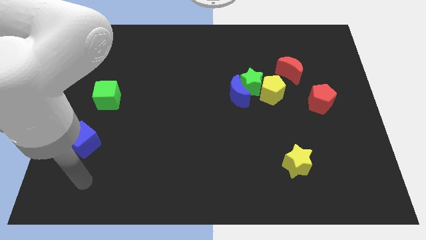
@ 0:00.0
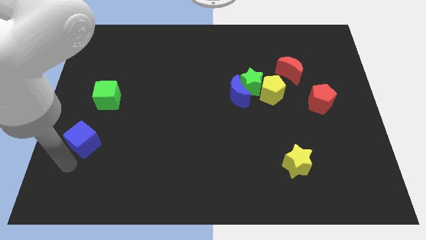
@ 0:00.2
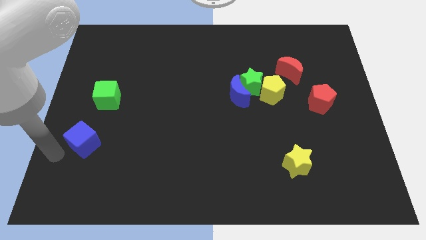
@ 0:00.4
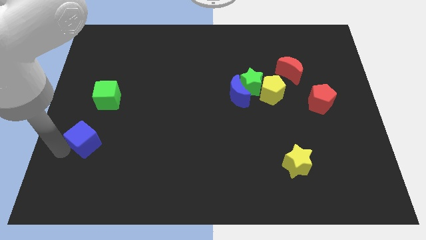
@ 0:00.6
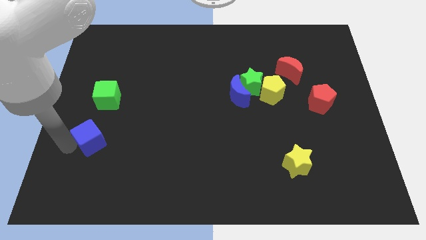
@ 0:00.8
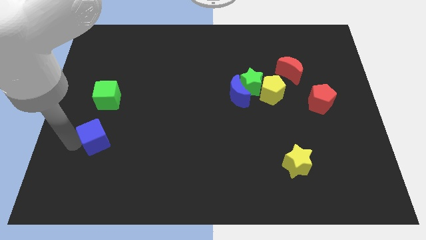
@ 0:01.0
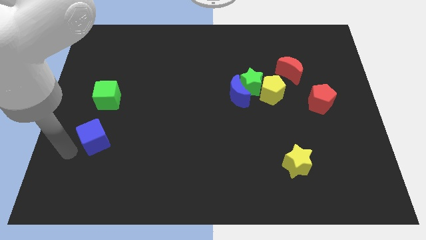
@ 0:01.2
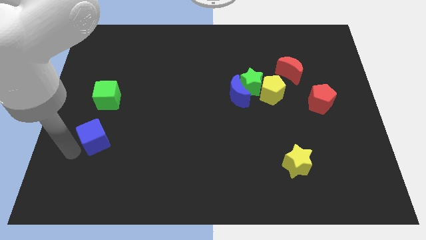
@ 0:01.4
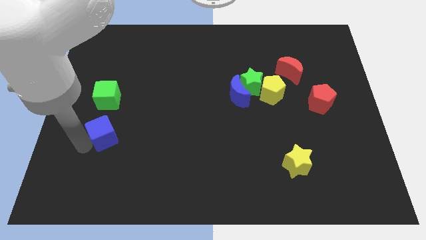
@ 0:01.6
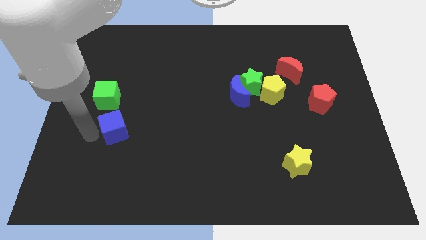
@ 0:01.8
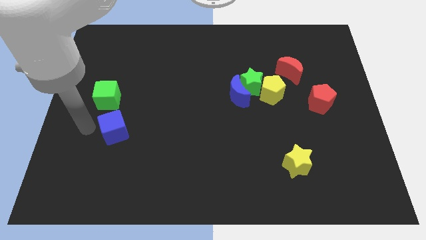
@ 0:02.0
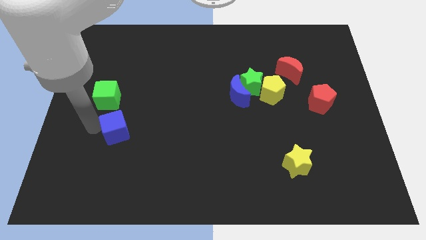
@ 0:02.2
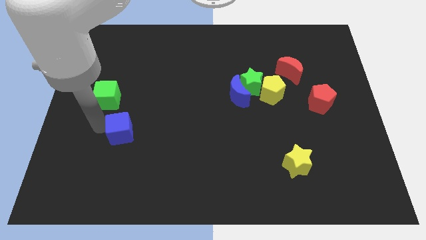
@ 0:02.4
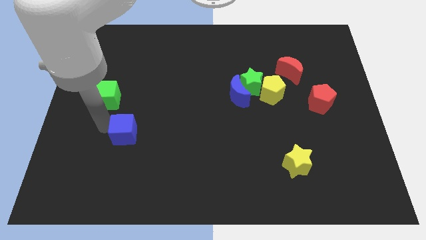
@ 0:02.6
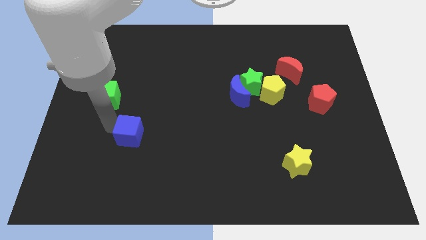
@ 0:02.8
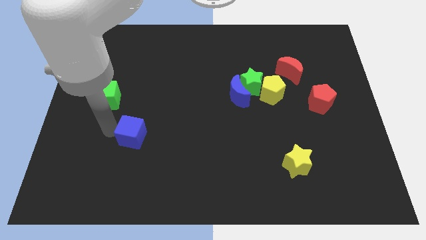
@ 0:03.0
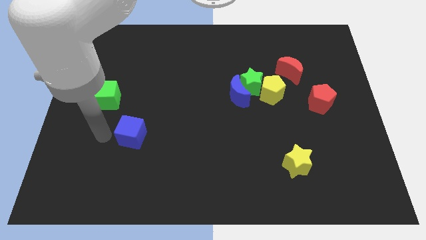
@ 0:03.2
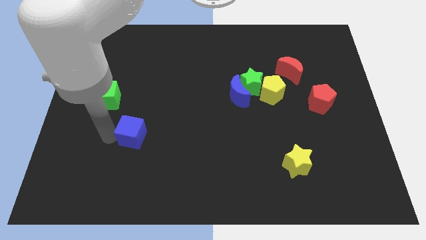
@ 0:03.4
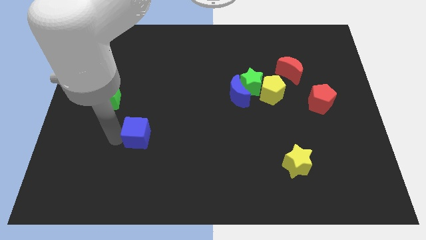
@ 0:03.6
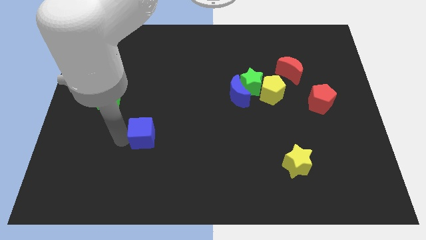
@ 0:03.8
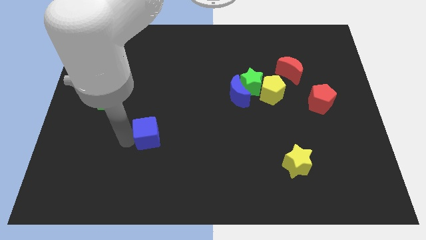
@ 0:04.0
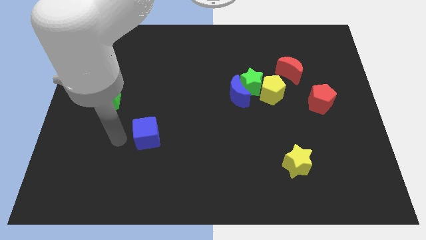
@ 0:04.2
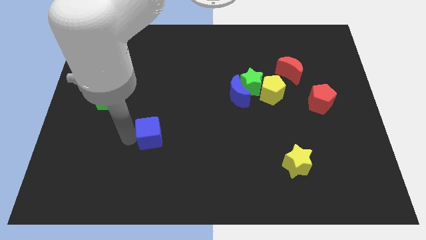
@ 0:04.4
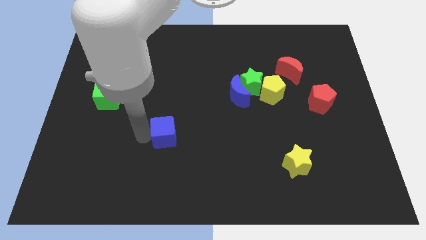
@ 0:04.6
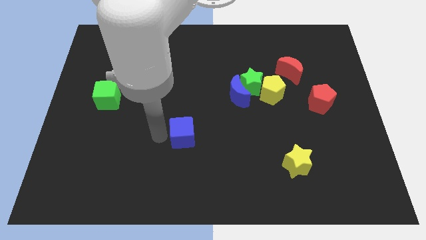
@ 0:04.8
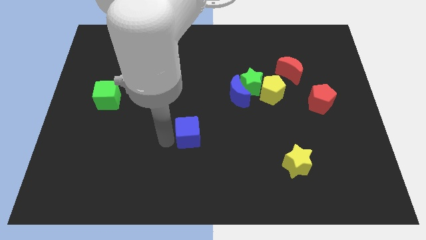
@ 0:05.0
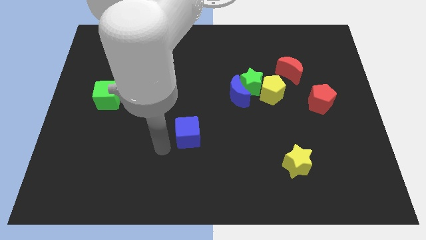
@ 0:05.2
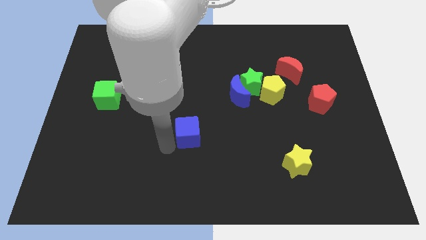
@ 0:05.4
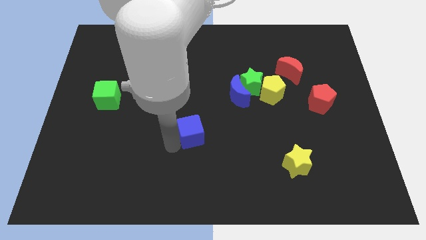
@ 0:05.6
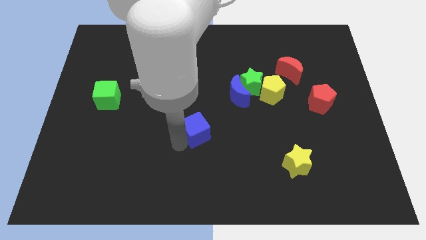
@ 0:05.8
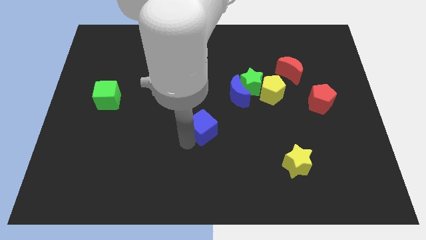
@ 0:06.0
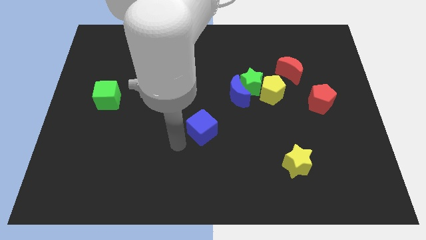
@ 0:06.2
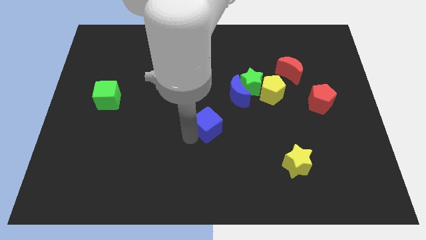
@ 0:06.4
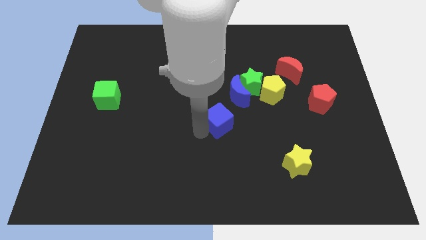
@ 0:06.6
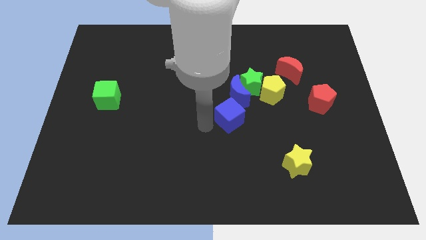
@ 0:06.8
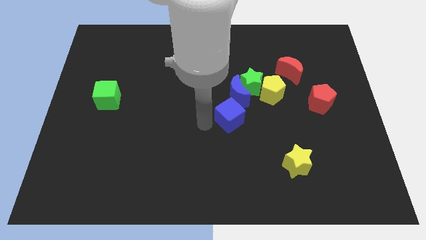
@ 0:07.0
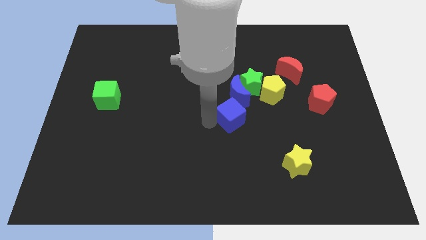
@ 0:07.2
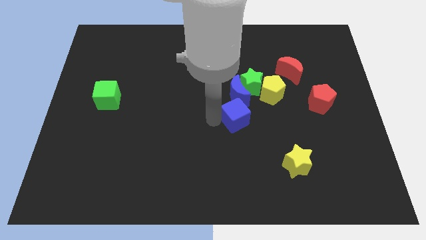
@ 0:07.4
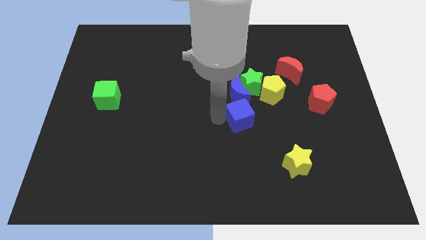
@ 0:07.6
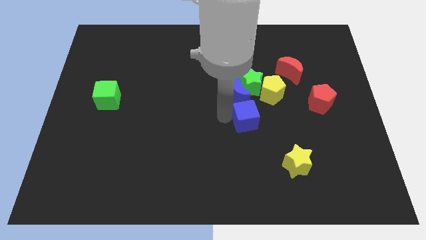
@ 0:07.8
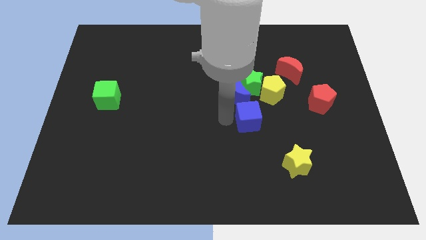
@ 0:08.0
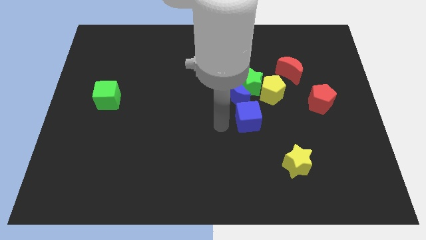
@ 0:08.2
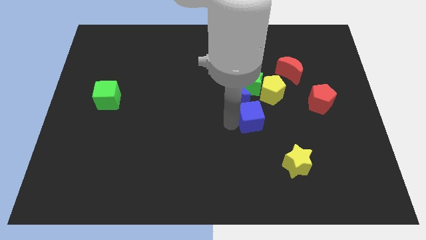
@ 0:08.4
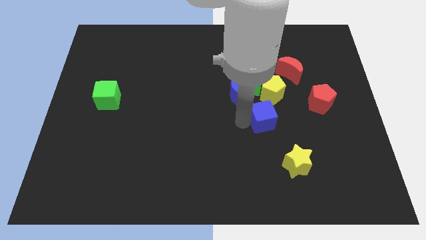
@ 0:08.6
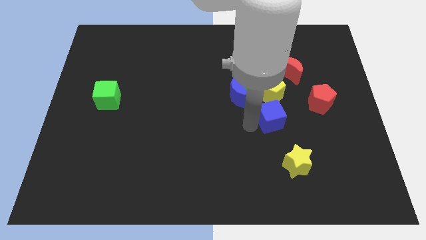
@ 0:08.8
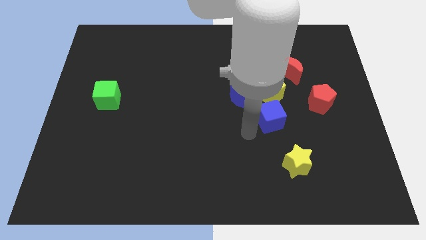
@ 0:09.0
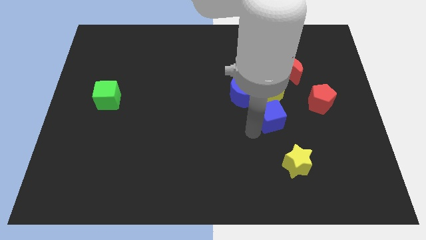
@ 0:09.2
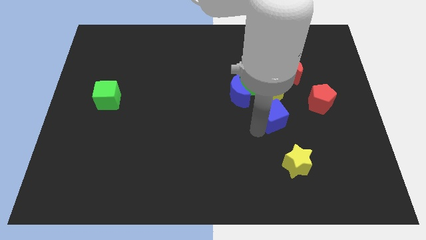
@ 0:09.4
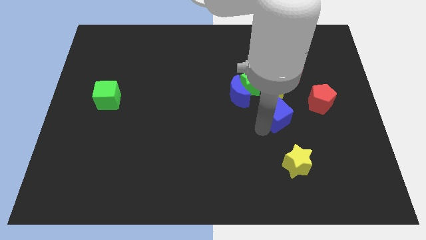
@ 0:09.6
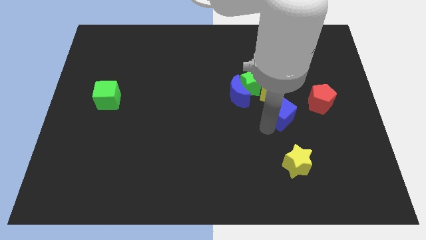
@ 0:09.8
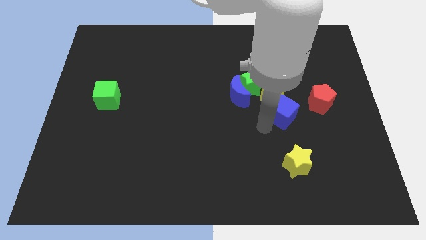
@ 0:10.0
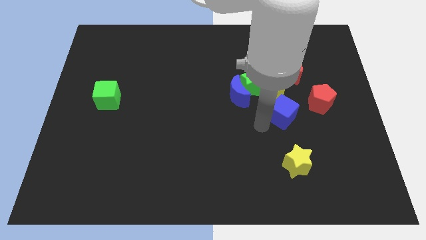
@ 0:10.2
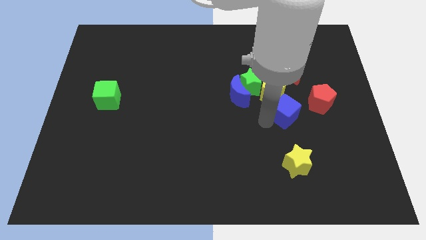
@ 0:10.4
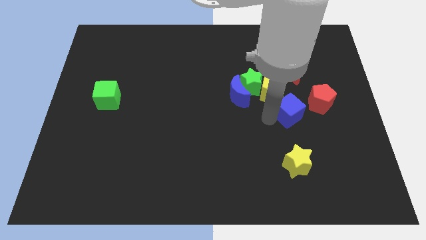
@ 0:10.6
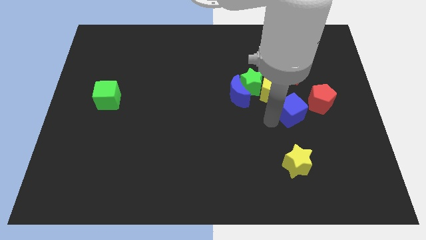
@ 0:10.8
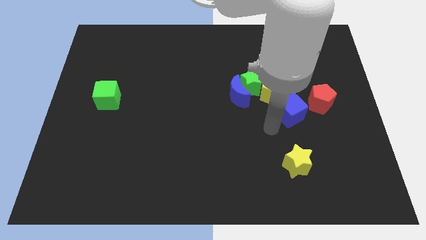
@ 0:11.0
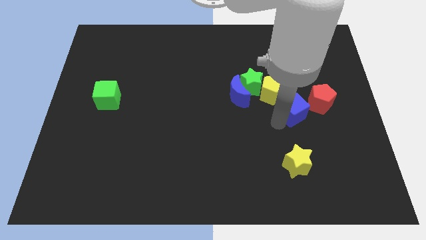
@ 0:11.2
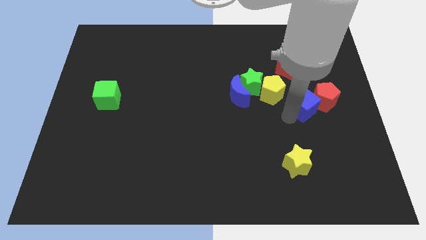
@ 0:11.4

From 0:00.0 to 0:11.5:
move the blue cube to the right side of the yellow pentagon

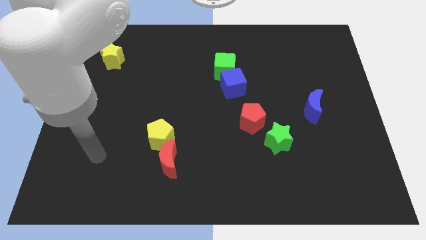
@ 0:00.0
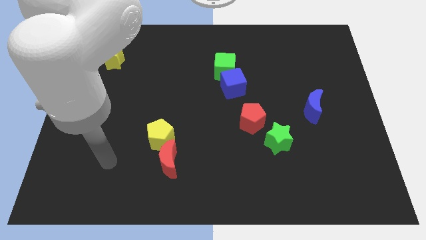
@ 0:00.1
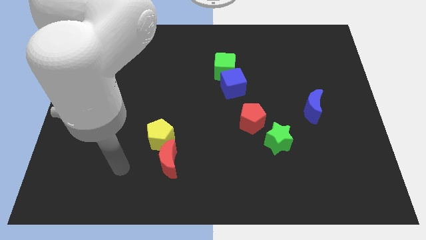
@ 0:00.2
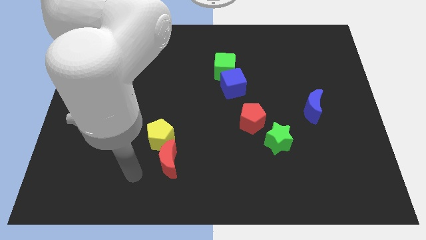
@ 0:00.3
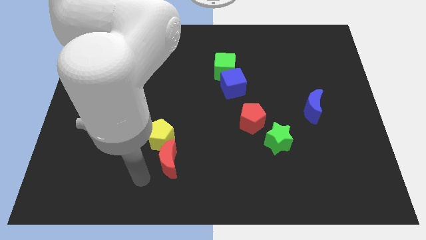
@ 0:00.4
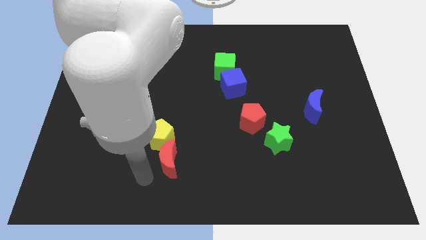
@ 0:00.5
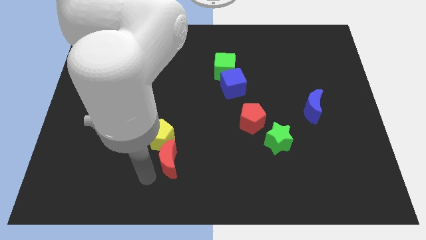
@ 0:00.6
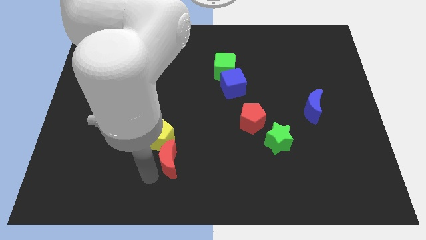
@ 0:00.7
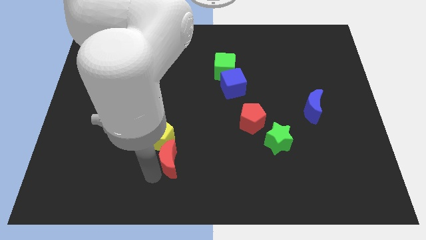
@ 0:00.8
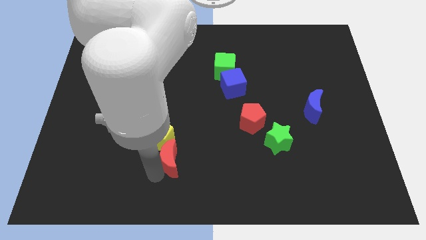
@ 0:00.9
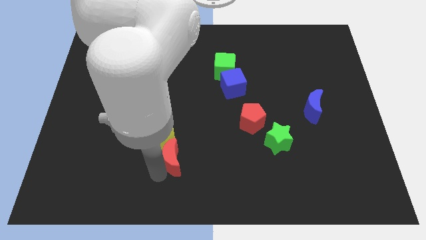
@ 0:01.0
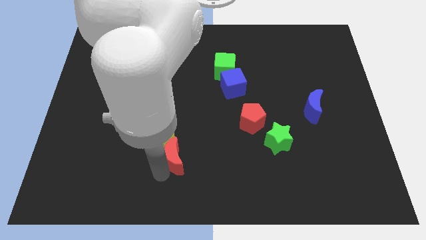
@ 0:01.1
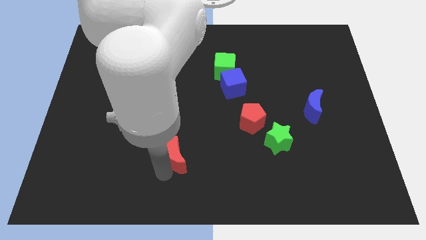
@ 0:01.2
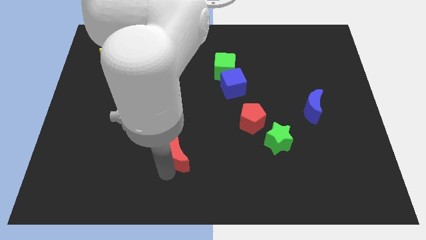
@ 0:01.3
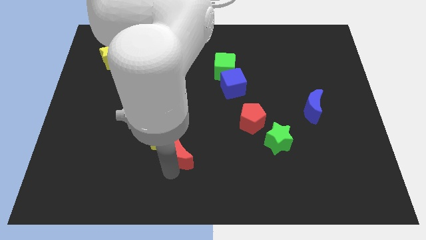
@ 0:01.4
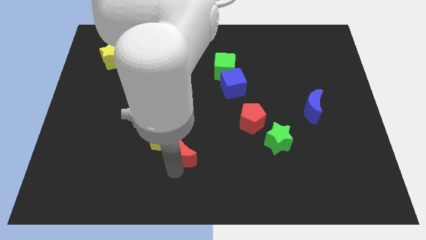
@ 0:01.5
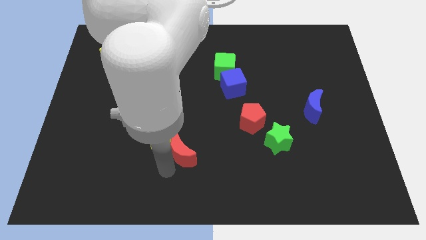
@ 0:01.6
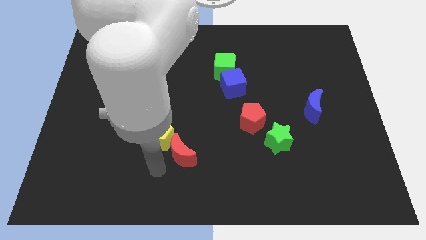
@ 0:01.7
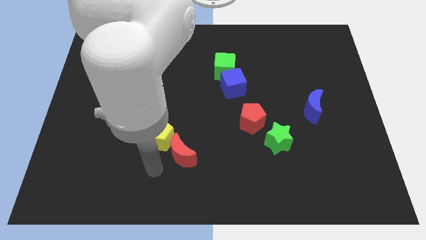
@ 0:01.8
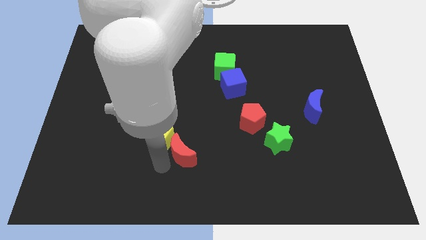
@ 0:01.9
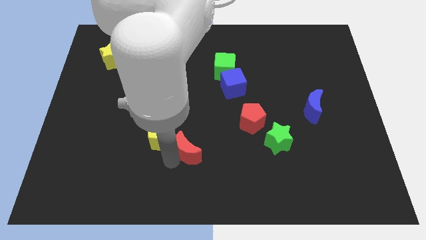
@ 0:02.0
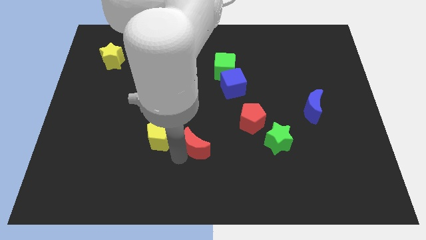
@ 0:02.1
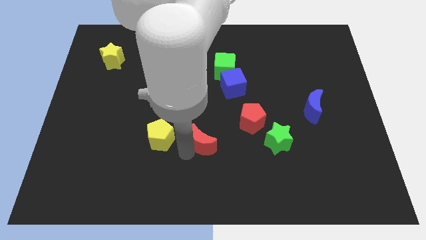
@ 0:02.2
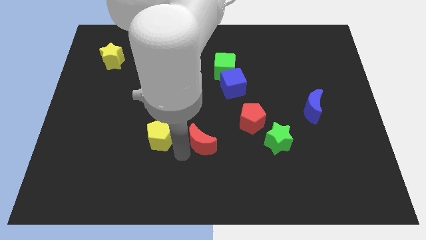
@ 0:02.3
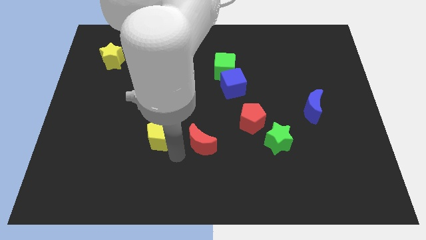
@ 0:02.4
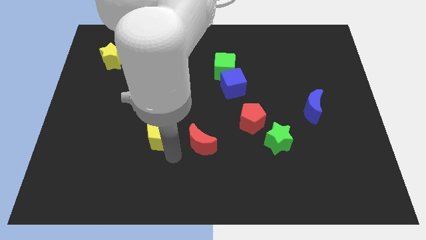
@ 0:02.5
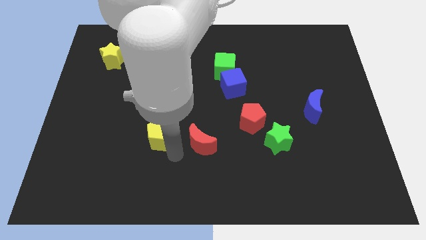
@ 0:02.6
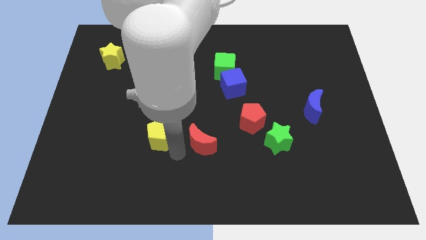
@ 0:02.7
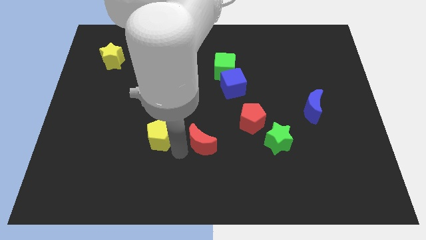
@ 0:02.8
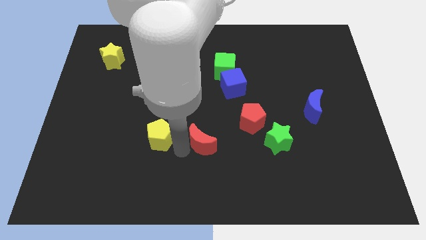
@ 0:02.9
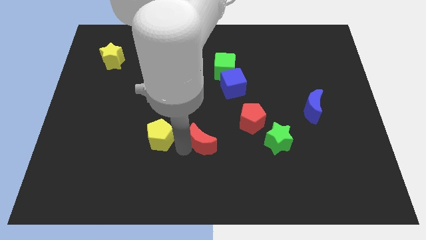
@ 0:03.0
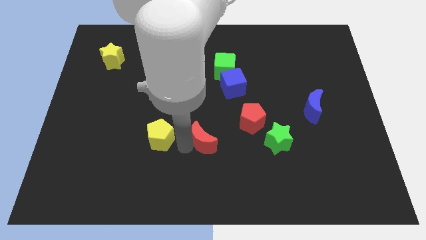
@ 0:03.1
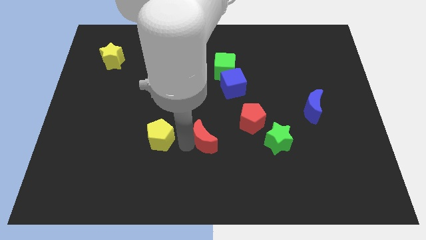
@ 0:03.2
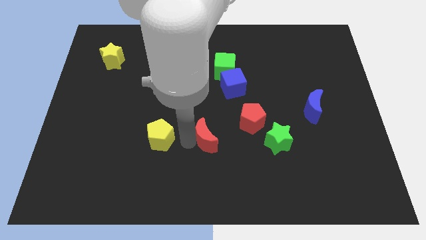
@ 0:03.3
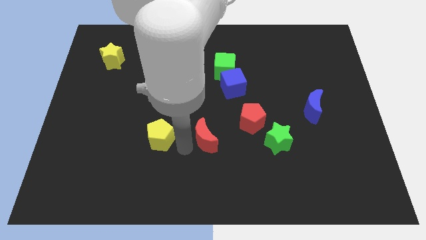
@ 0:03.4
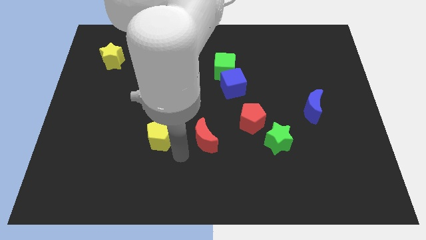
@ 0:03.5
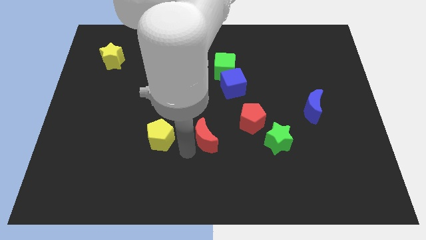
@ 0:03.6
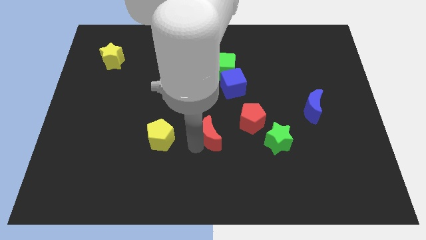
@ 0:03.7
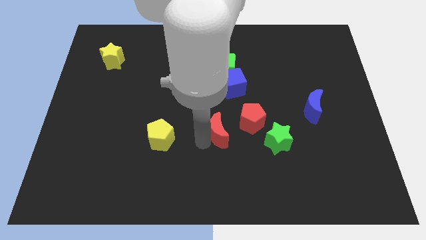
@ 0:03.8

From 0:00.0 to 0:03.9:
push the red moon to the bottom of the blue cube
